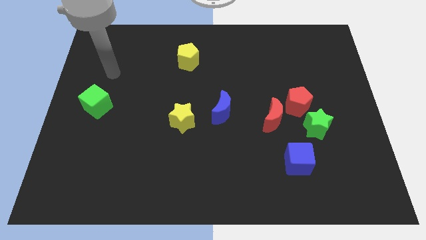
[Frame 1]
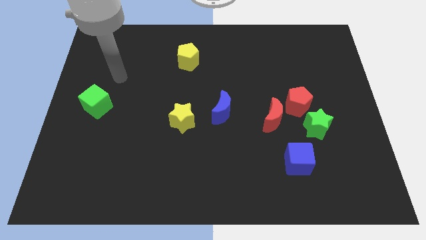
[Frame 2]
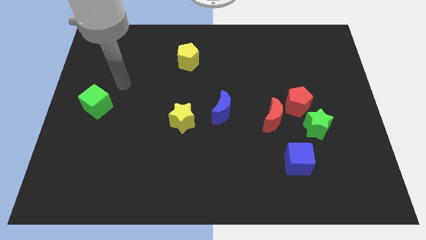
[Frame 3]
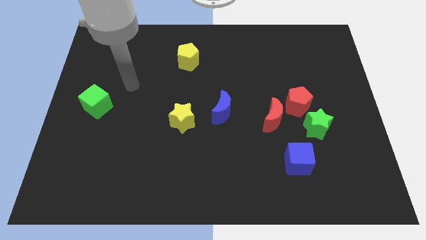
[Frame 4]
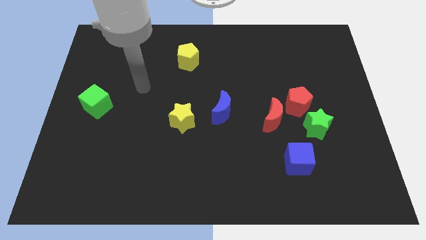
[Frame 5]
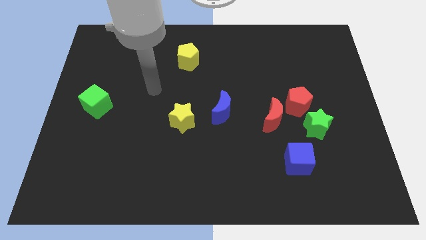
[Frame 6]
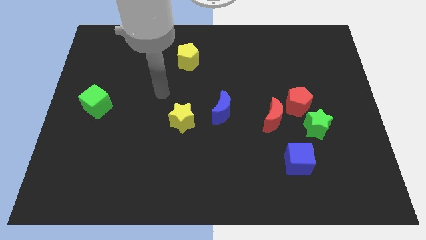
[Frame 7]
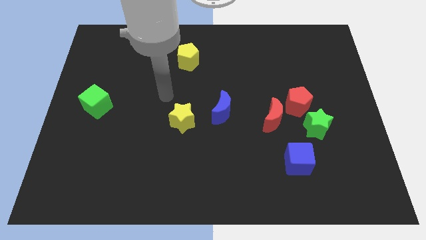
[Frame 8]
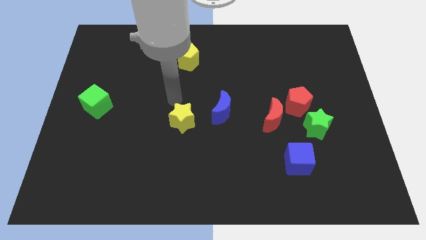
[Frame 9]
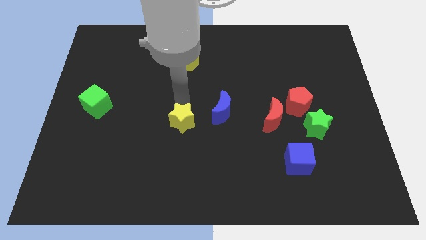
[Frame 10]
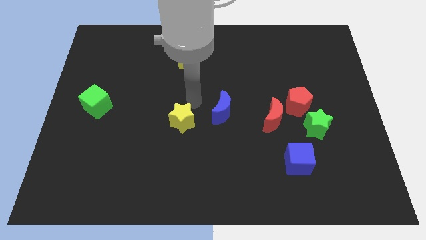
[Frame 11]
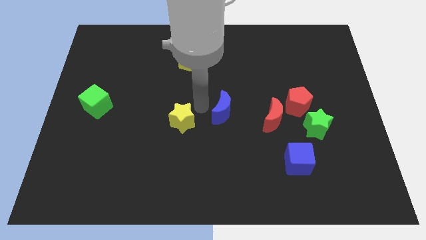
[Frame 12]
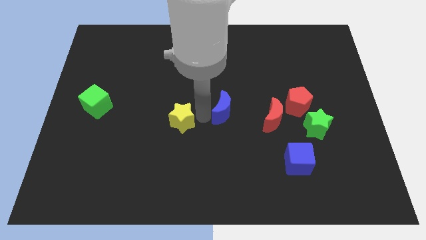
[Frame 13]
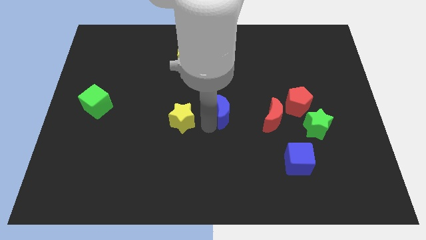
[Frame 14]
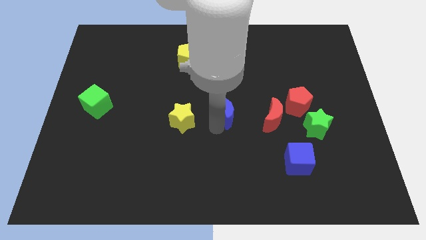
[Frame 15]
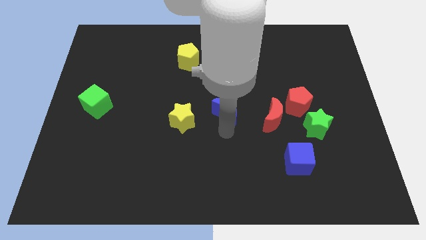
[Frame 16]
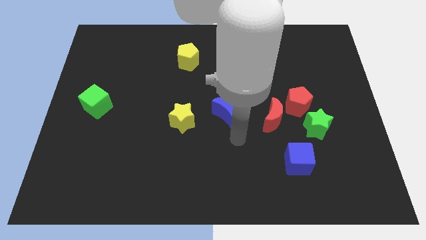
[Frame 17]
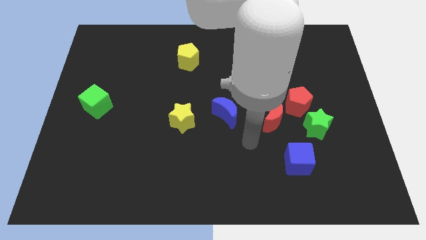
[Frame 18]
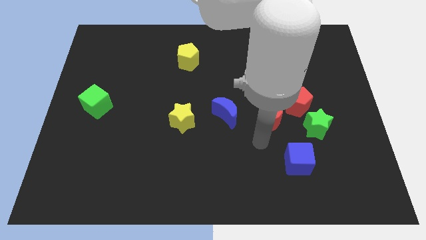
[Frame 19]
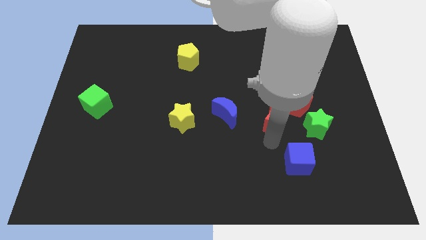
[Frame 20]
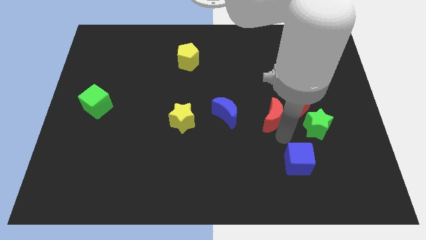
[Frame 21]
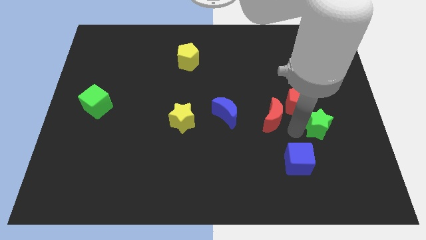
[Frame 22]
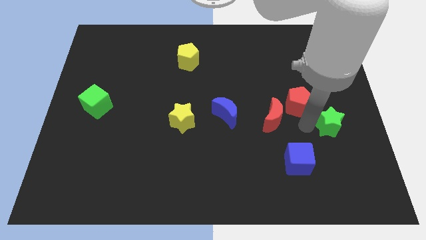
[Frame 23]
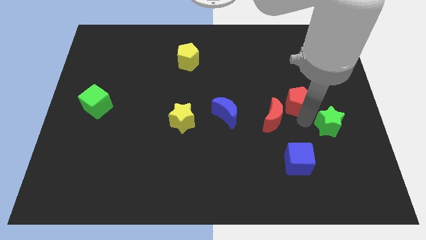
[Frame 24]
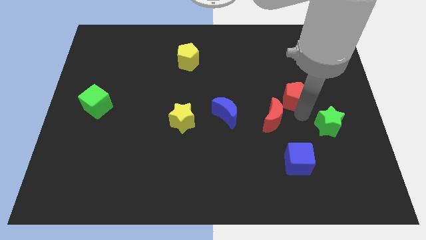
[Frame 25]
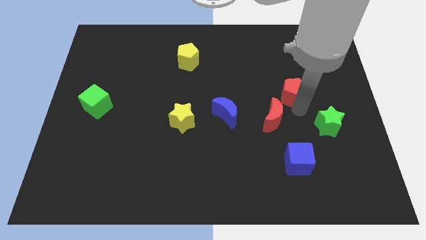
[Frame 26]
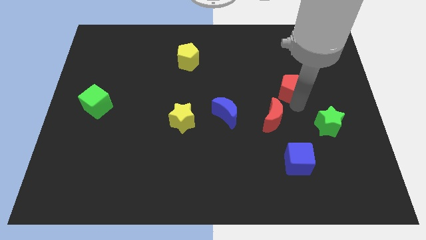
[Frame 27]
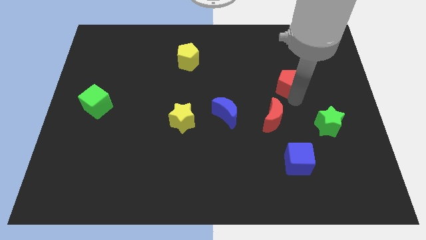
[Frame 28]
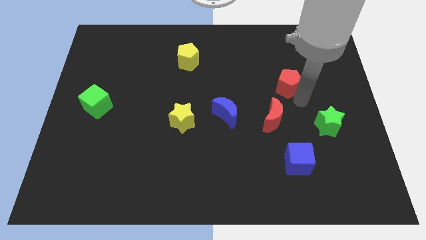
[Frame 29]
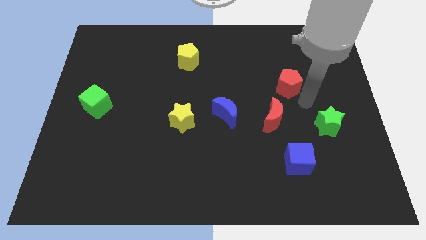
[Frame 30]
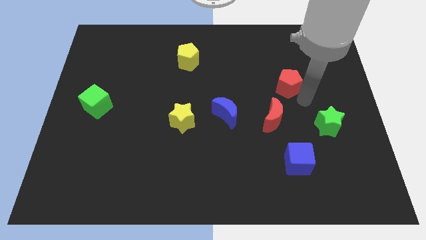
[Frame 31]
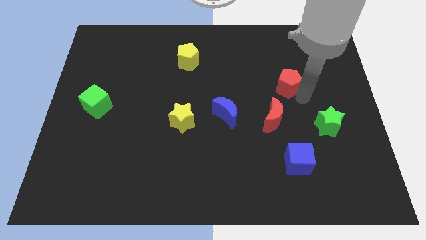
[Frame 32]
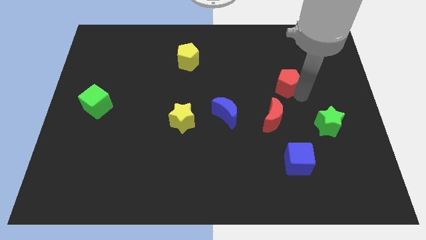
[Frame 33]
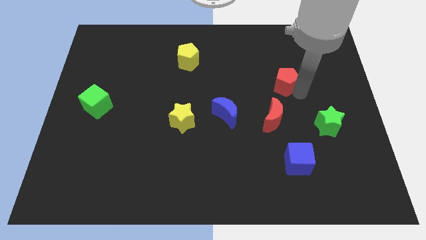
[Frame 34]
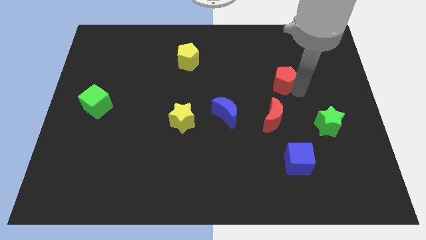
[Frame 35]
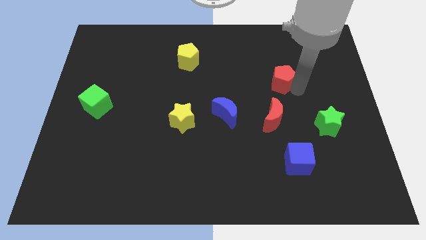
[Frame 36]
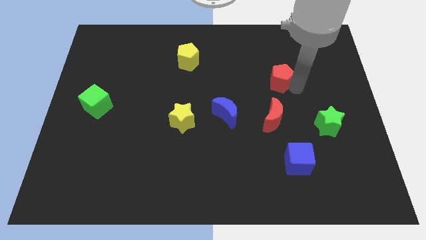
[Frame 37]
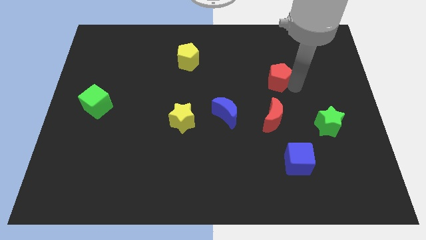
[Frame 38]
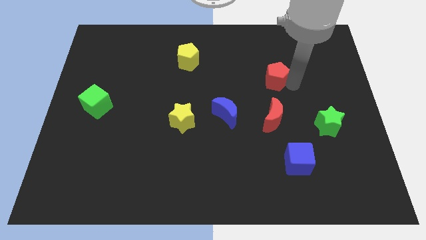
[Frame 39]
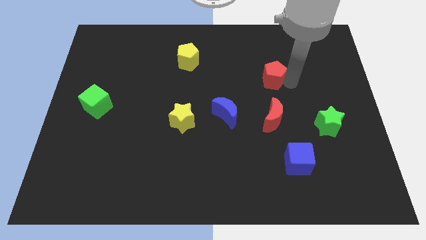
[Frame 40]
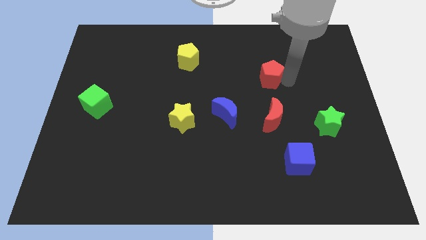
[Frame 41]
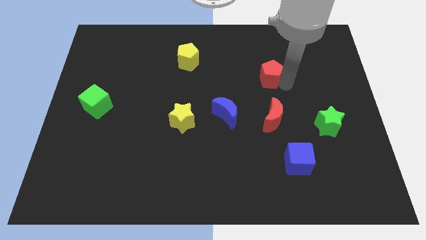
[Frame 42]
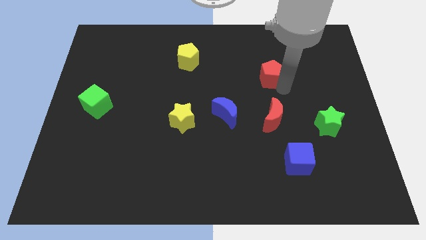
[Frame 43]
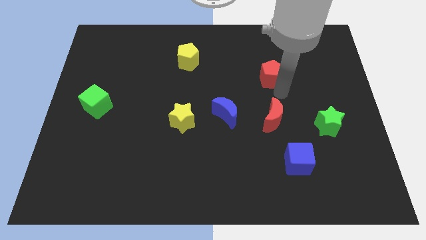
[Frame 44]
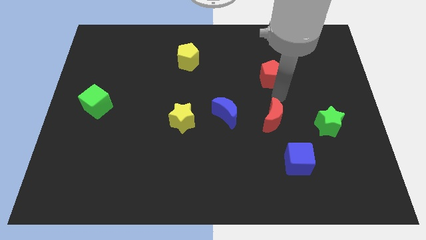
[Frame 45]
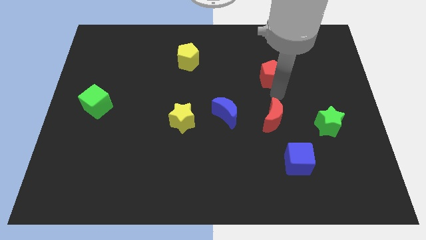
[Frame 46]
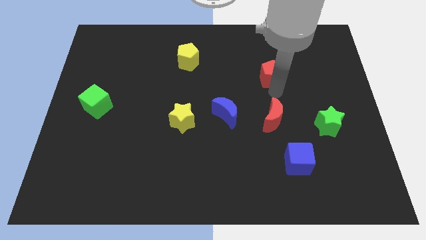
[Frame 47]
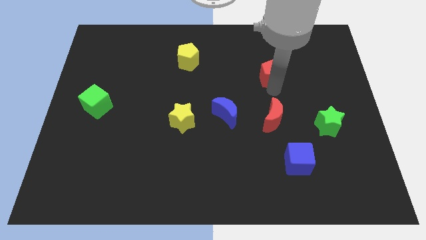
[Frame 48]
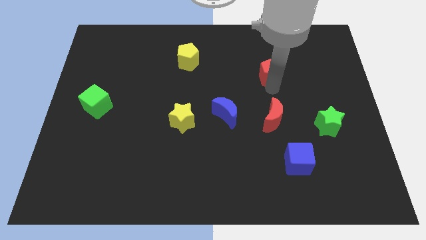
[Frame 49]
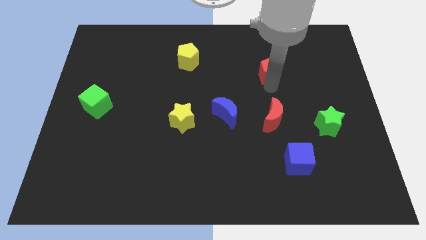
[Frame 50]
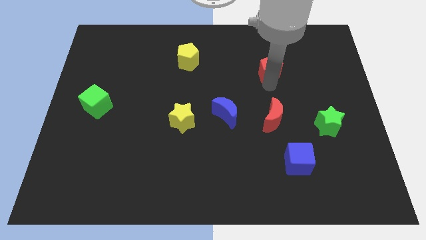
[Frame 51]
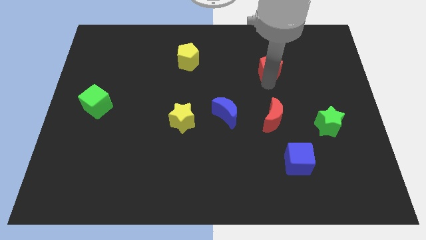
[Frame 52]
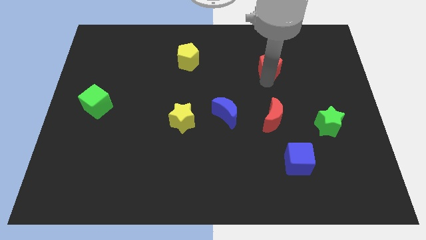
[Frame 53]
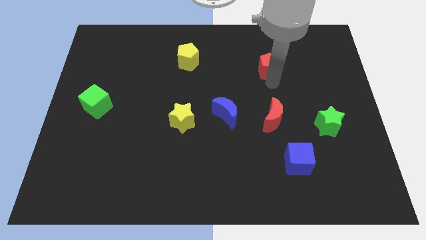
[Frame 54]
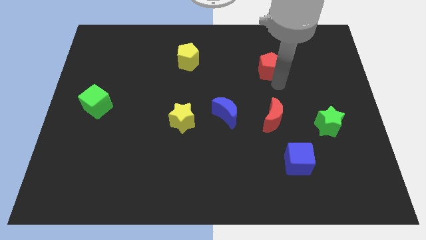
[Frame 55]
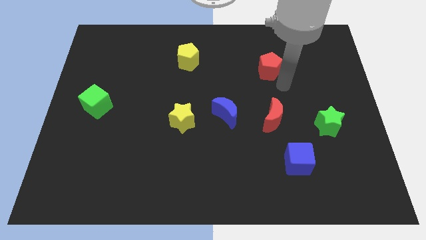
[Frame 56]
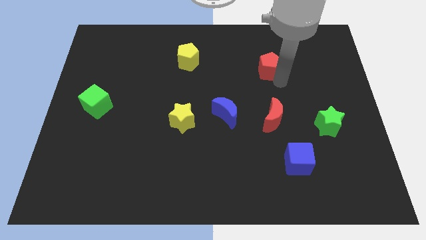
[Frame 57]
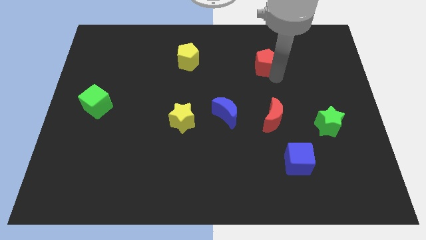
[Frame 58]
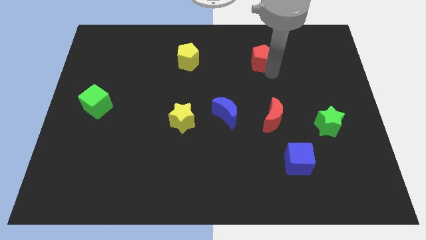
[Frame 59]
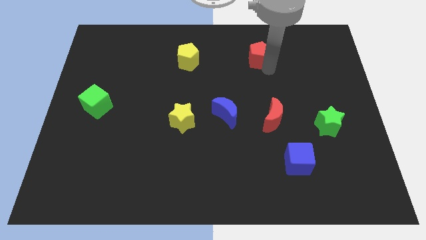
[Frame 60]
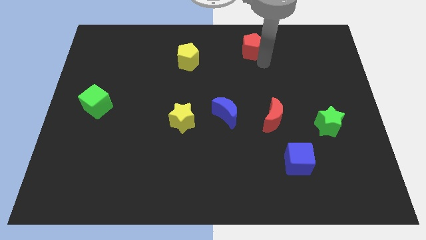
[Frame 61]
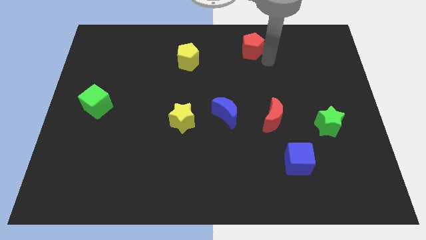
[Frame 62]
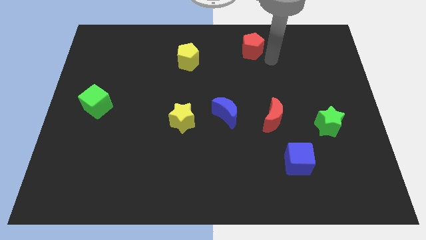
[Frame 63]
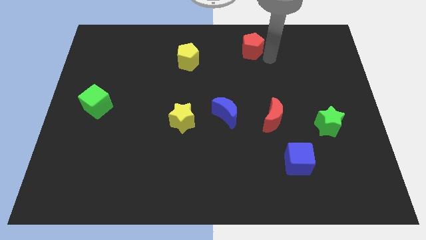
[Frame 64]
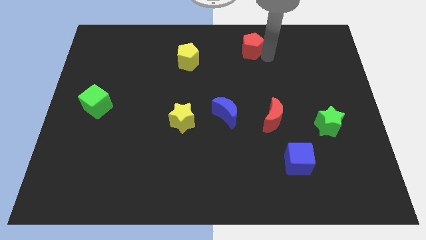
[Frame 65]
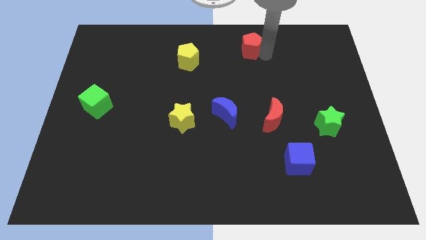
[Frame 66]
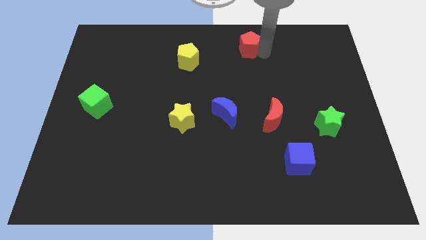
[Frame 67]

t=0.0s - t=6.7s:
push the red pentagon to the top side

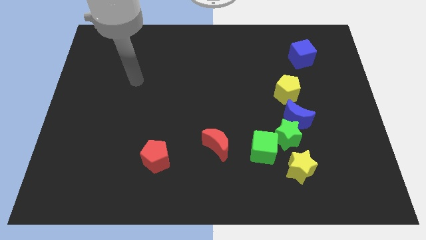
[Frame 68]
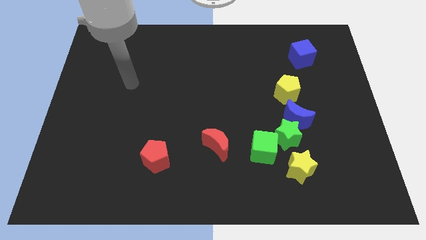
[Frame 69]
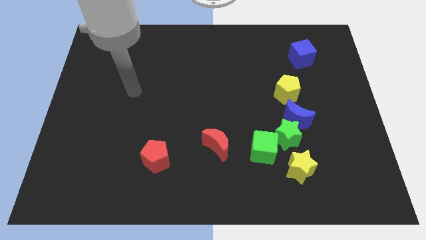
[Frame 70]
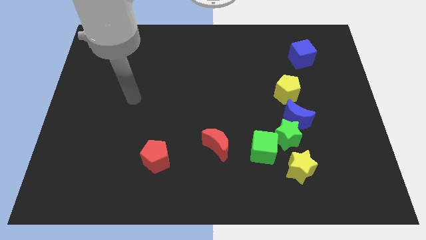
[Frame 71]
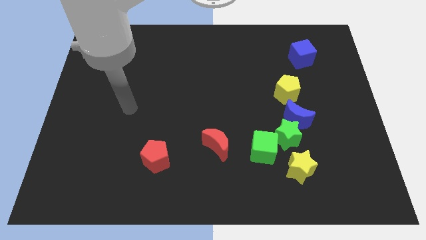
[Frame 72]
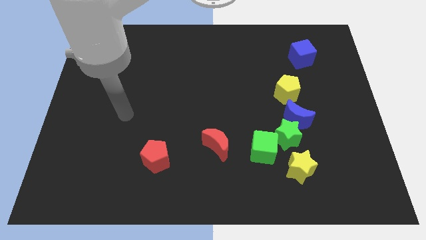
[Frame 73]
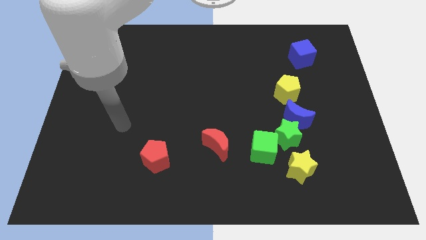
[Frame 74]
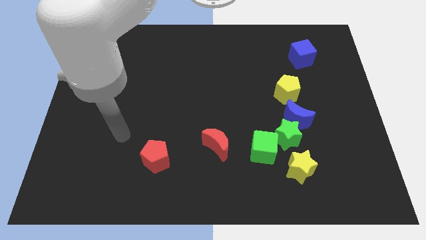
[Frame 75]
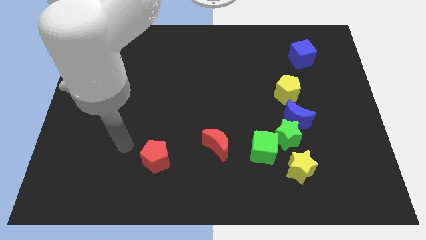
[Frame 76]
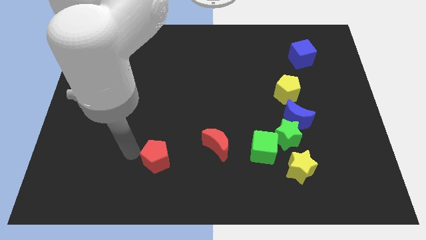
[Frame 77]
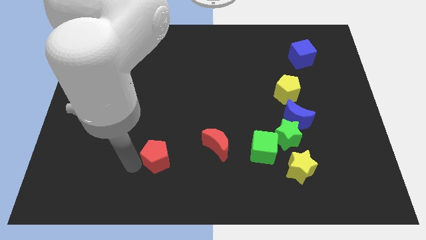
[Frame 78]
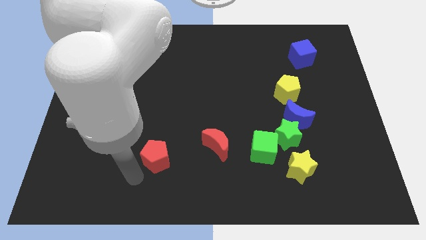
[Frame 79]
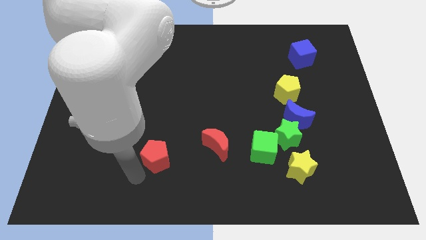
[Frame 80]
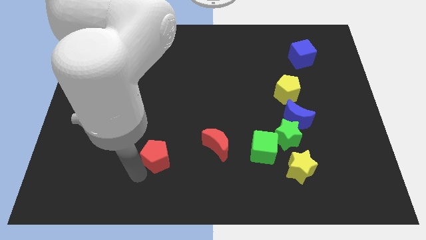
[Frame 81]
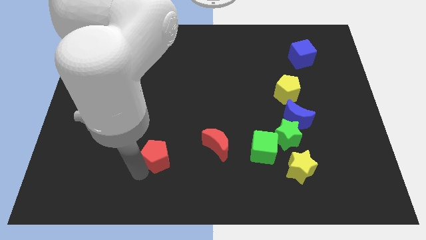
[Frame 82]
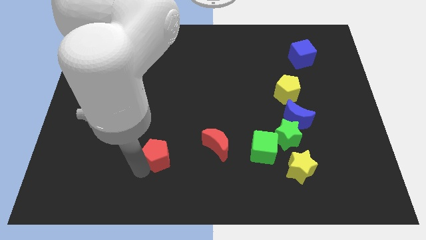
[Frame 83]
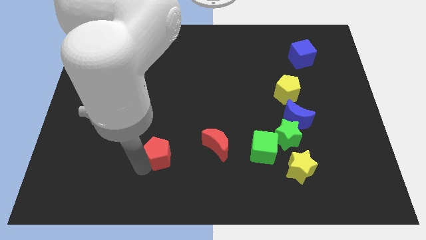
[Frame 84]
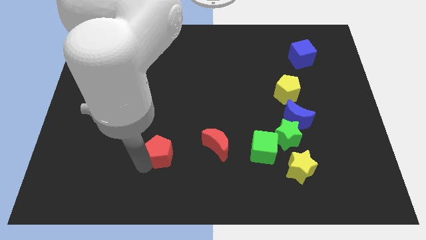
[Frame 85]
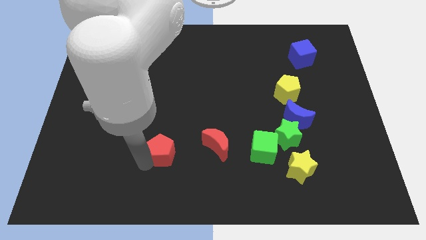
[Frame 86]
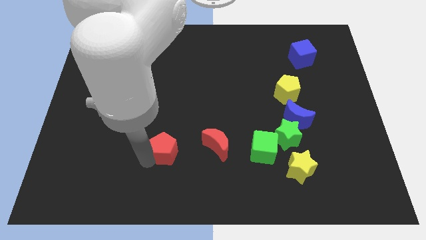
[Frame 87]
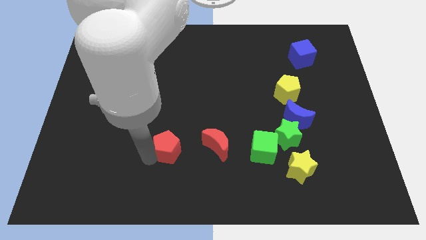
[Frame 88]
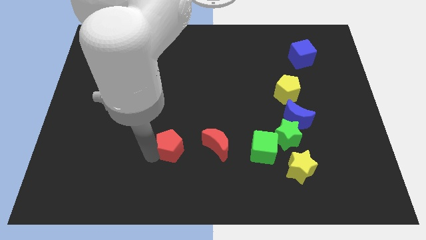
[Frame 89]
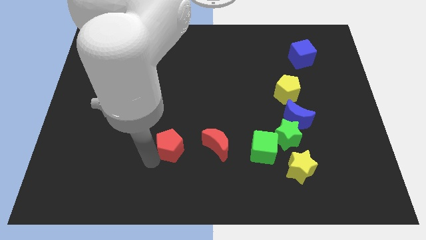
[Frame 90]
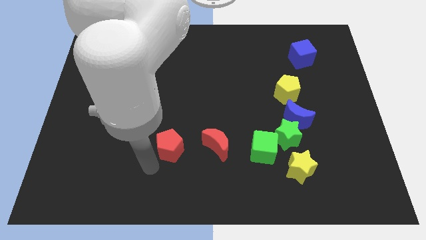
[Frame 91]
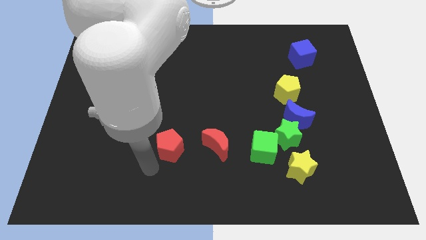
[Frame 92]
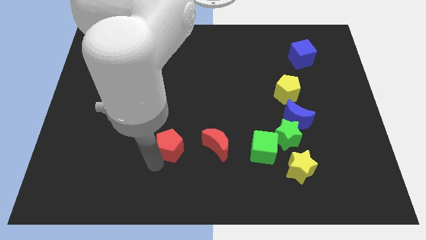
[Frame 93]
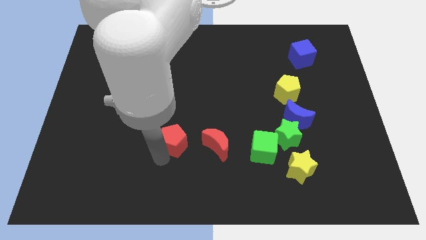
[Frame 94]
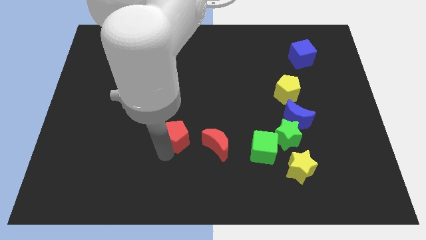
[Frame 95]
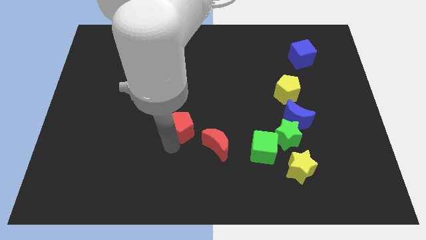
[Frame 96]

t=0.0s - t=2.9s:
slide the red pentagon to the middle of the board
